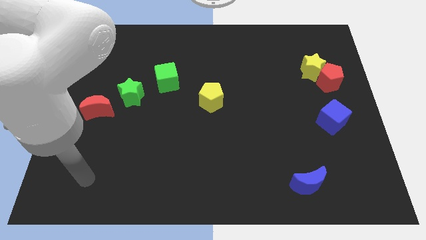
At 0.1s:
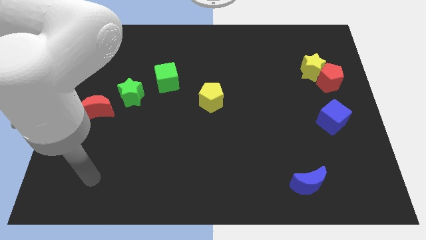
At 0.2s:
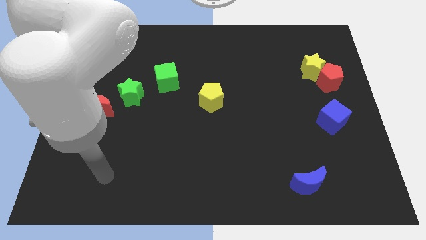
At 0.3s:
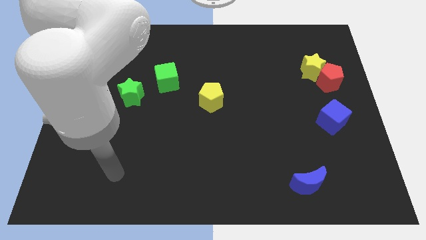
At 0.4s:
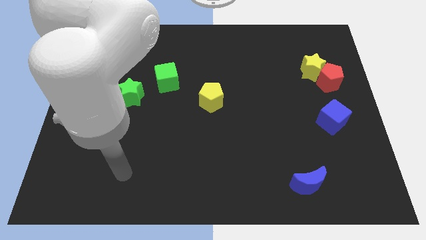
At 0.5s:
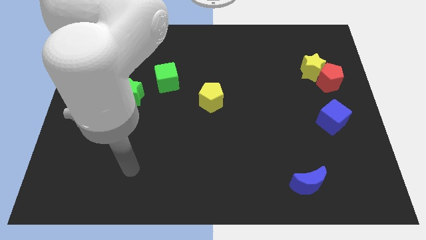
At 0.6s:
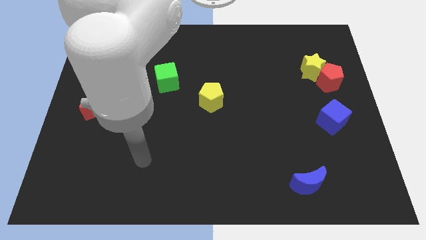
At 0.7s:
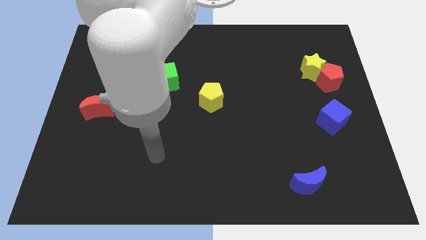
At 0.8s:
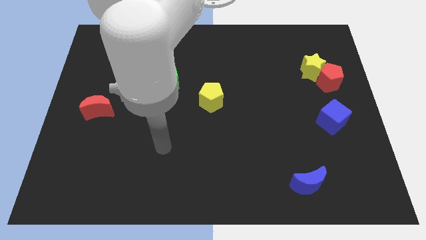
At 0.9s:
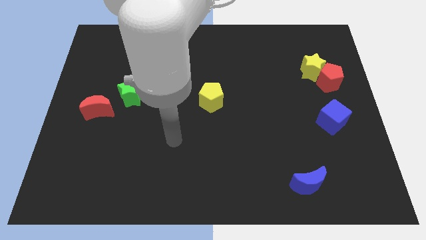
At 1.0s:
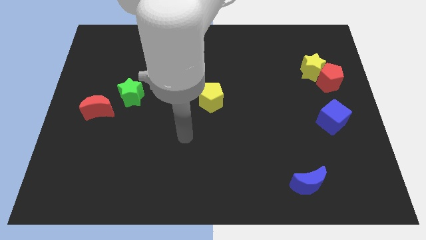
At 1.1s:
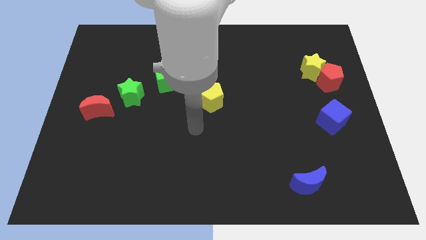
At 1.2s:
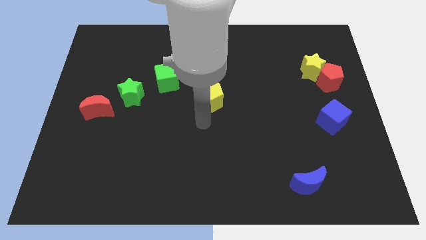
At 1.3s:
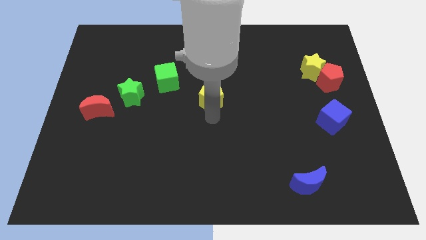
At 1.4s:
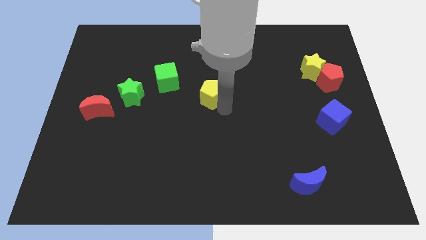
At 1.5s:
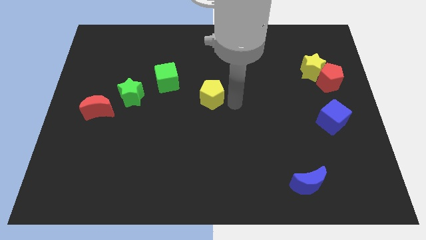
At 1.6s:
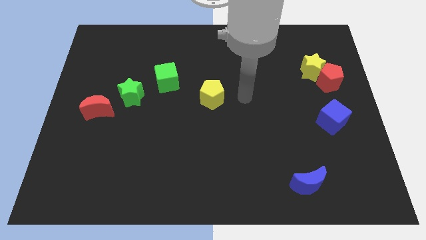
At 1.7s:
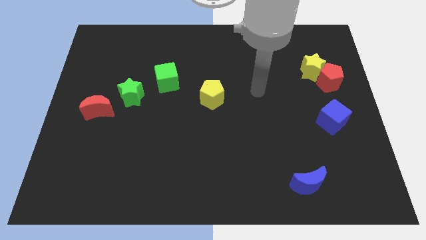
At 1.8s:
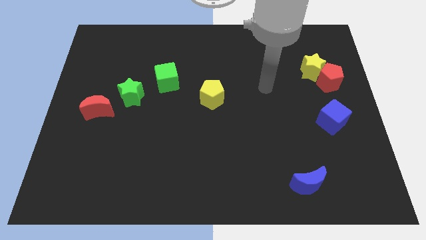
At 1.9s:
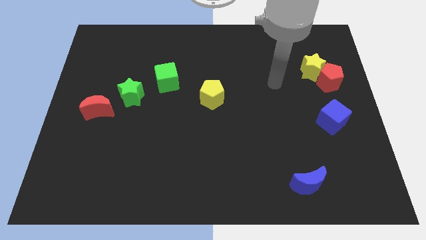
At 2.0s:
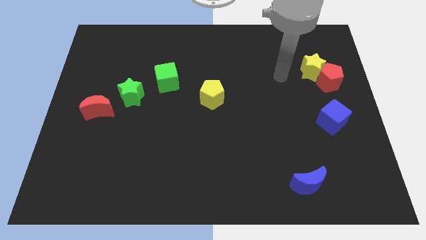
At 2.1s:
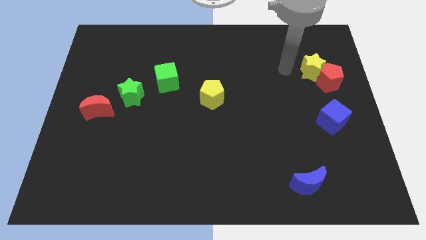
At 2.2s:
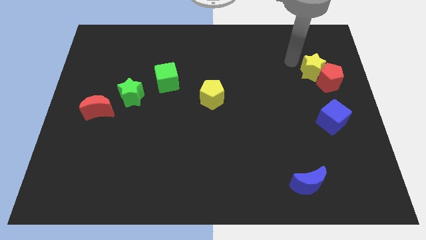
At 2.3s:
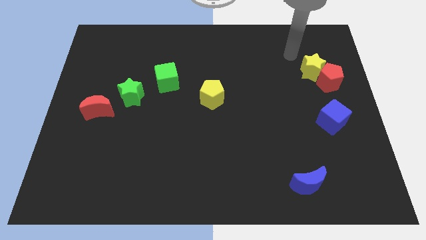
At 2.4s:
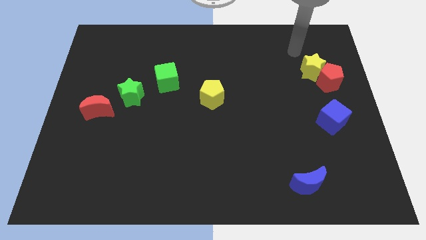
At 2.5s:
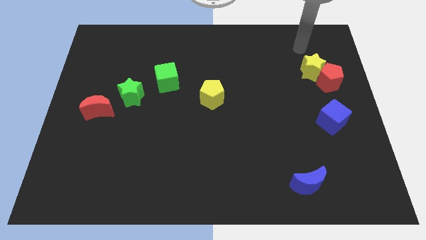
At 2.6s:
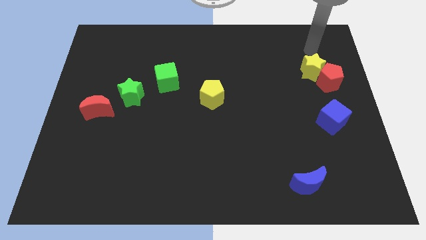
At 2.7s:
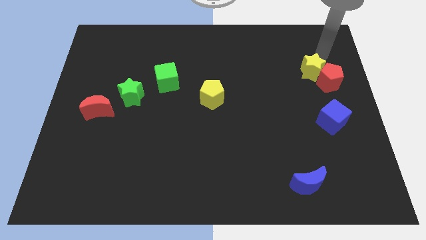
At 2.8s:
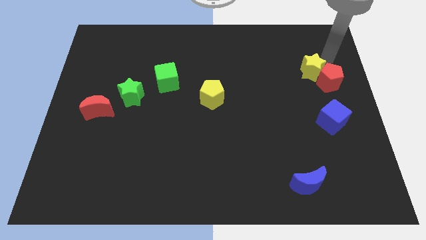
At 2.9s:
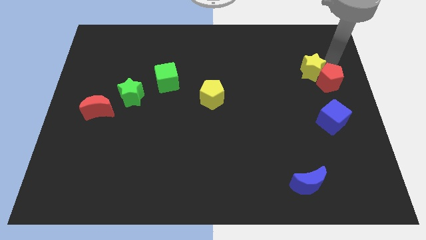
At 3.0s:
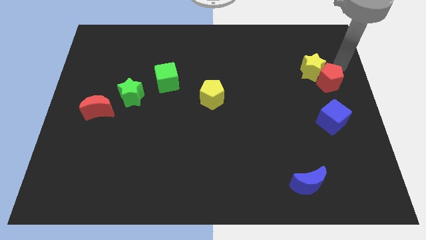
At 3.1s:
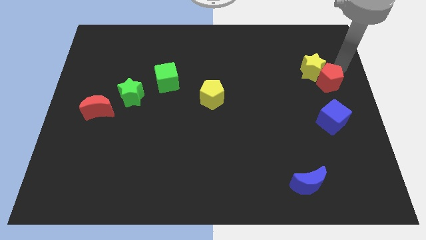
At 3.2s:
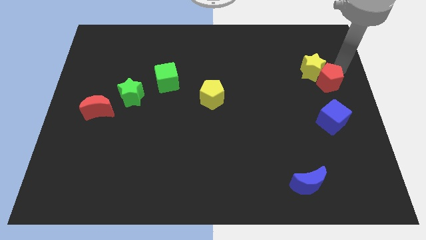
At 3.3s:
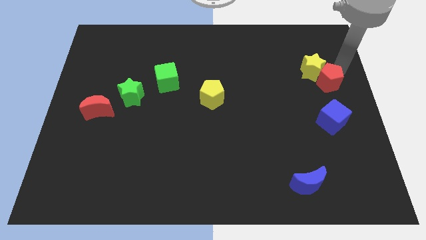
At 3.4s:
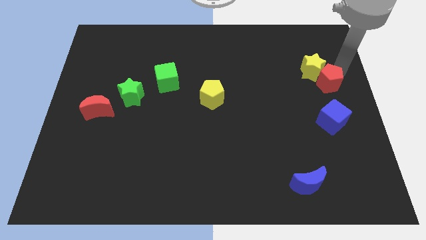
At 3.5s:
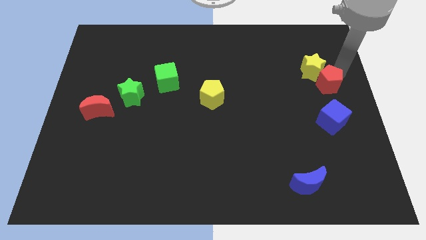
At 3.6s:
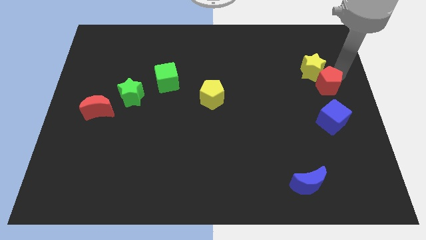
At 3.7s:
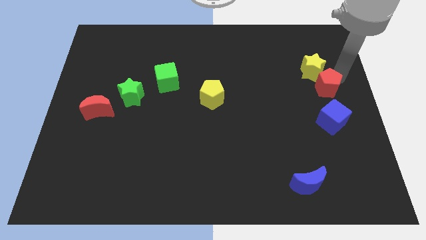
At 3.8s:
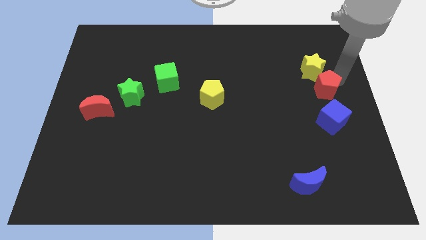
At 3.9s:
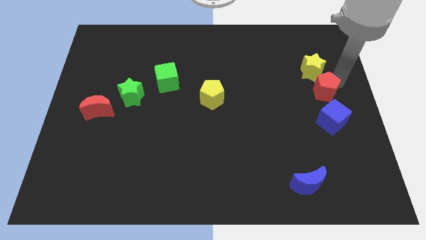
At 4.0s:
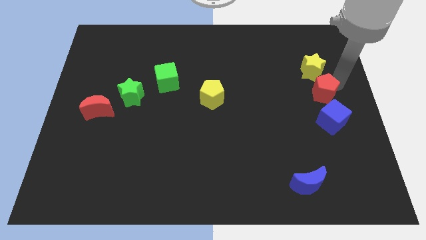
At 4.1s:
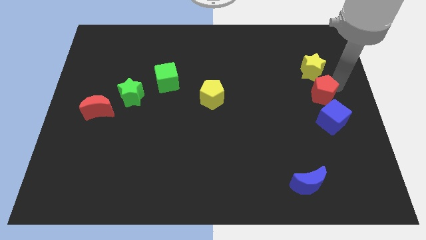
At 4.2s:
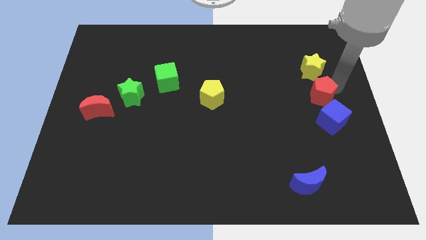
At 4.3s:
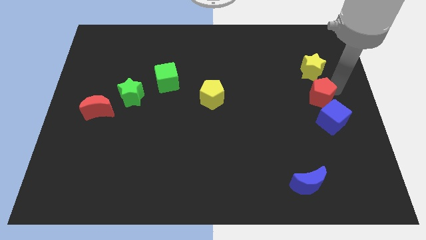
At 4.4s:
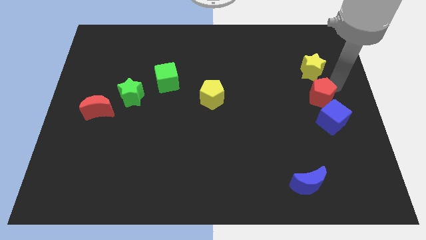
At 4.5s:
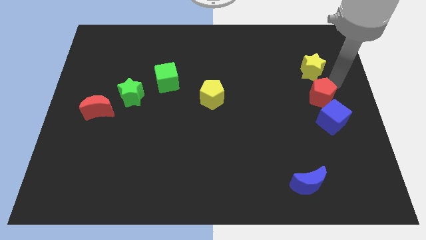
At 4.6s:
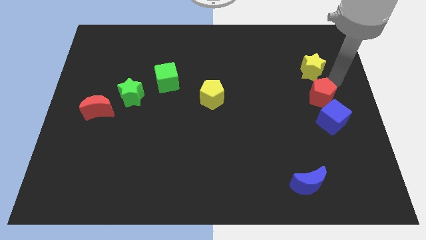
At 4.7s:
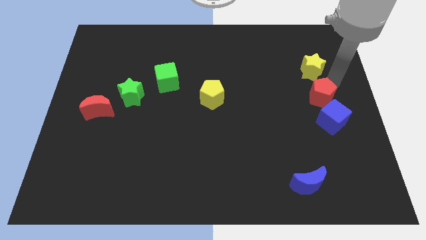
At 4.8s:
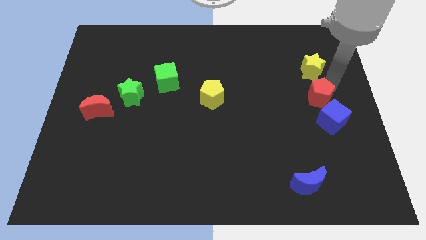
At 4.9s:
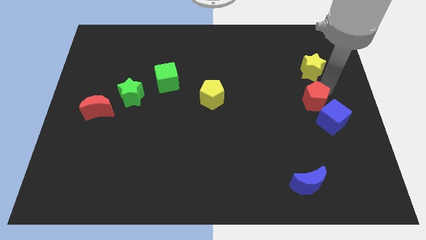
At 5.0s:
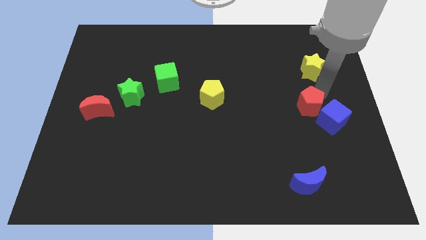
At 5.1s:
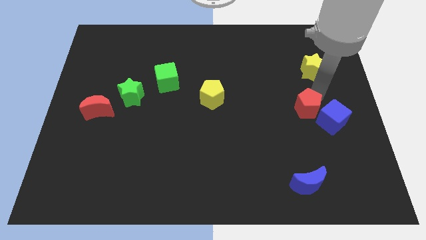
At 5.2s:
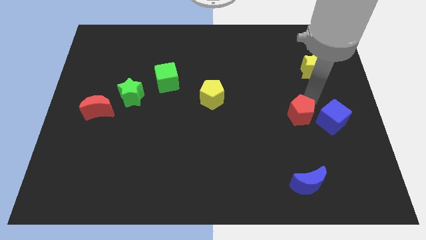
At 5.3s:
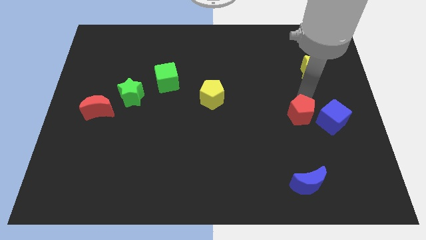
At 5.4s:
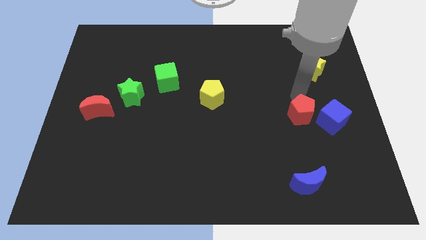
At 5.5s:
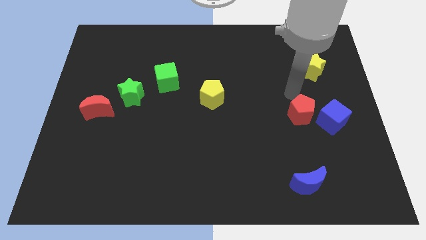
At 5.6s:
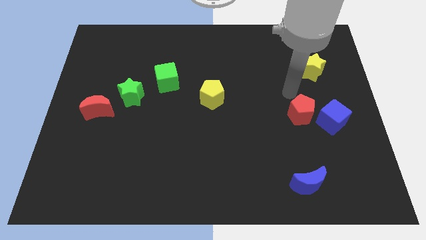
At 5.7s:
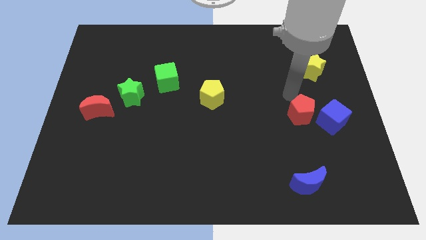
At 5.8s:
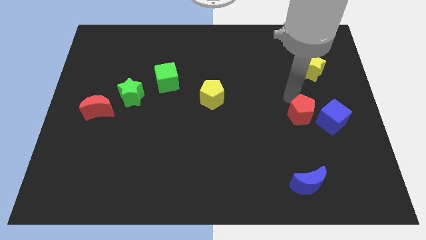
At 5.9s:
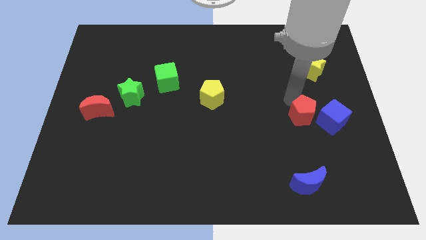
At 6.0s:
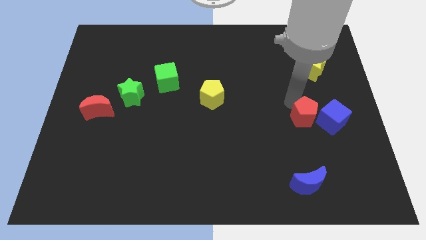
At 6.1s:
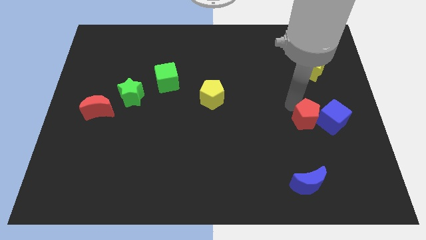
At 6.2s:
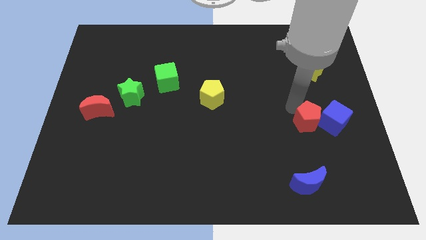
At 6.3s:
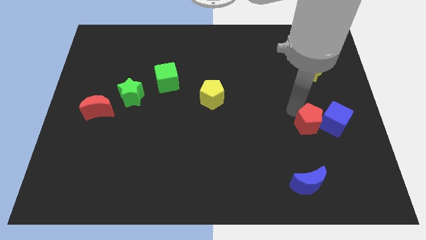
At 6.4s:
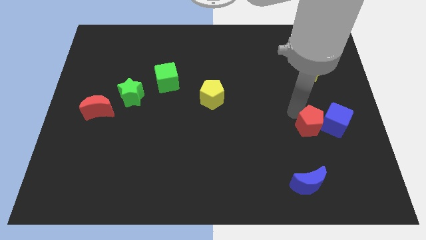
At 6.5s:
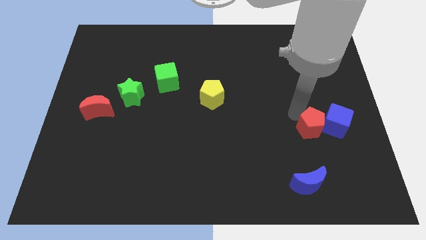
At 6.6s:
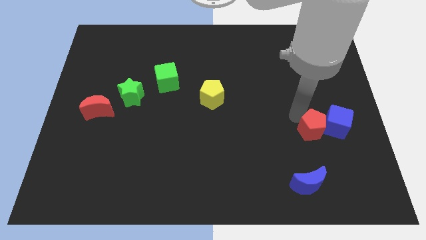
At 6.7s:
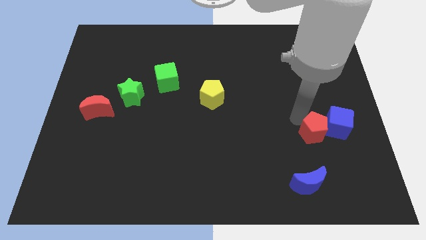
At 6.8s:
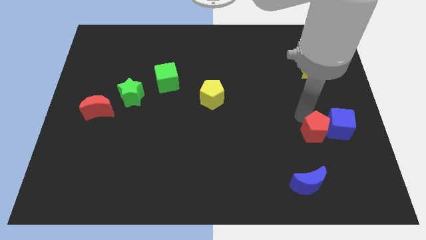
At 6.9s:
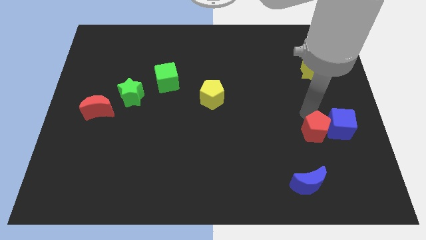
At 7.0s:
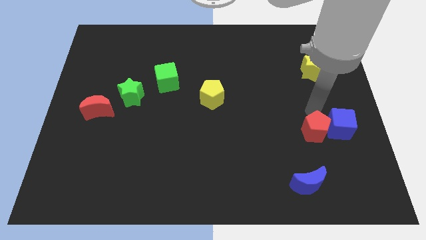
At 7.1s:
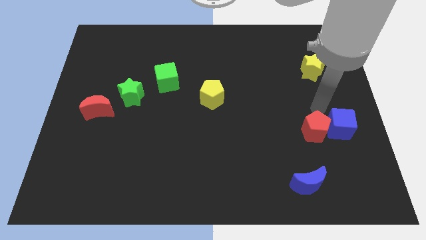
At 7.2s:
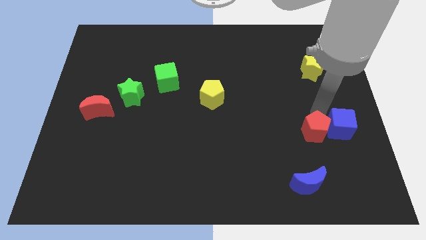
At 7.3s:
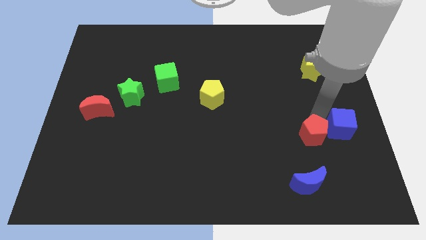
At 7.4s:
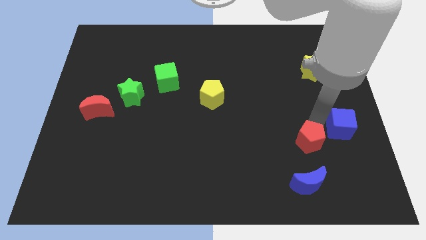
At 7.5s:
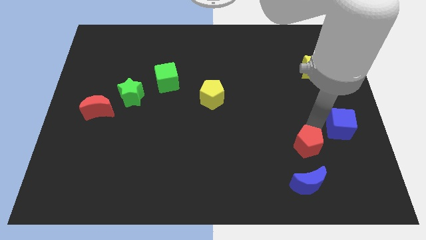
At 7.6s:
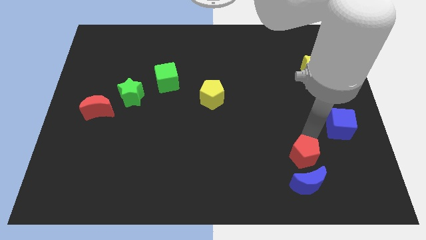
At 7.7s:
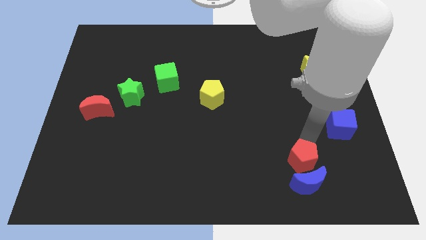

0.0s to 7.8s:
move the red pentagon close to the blue moon
